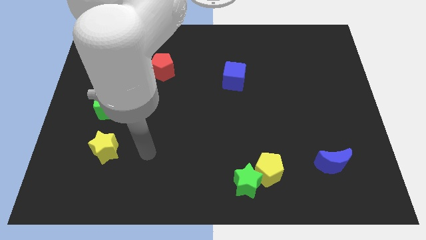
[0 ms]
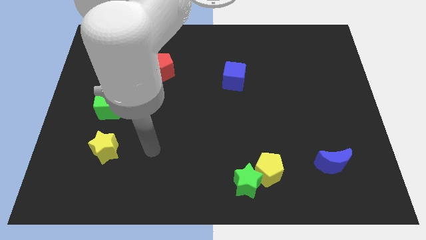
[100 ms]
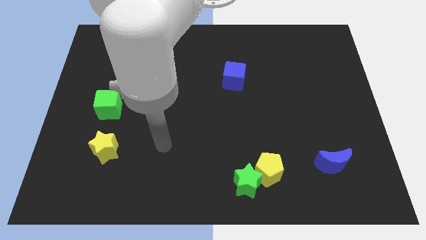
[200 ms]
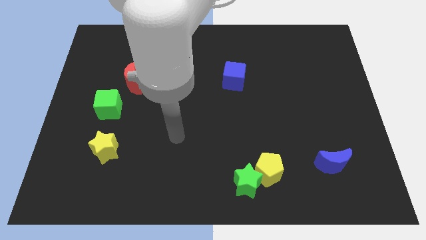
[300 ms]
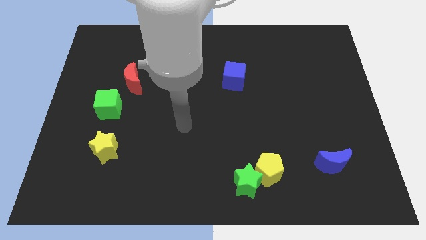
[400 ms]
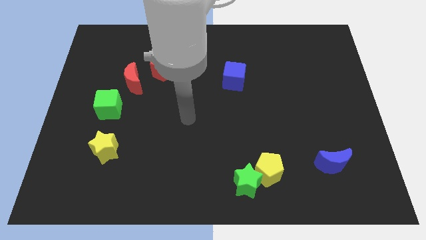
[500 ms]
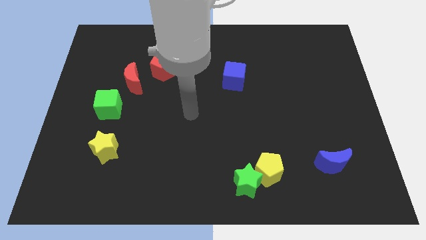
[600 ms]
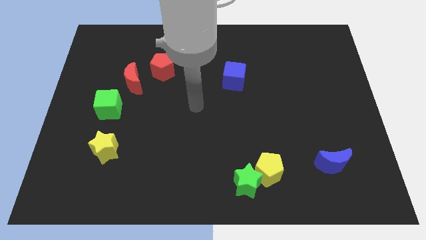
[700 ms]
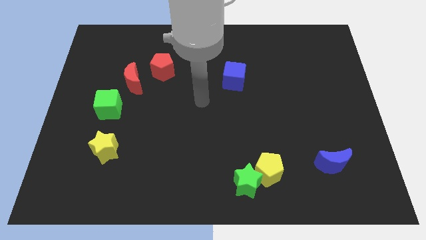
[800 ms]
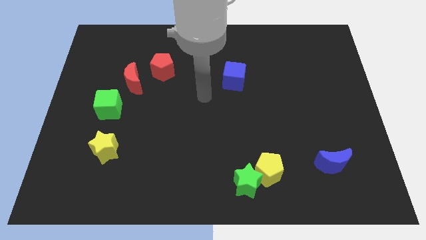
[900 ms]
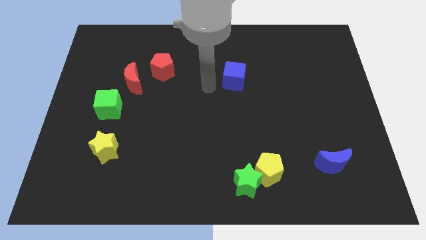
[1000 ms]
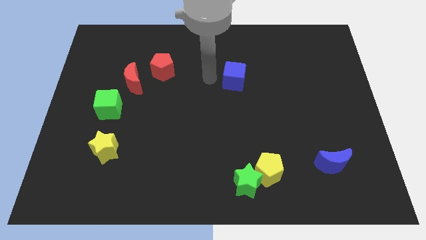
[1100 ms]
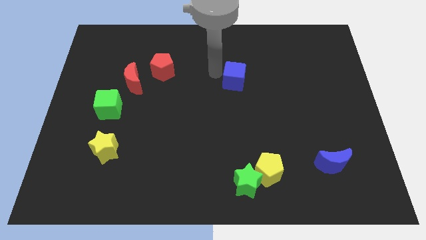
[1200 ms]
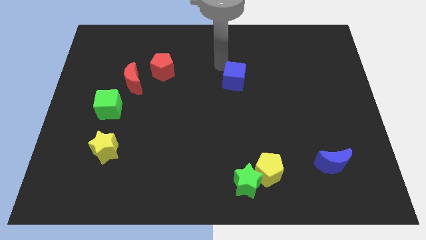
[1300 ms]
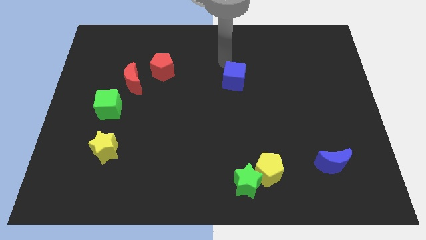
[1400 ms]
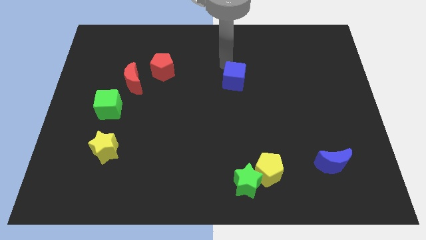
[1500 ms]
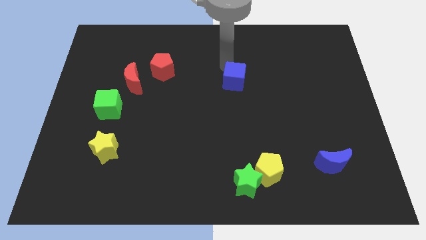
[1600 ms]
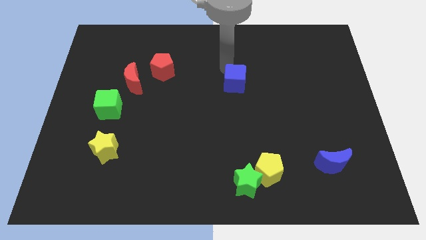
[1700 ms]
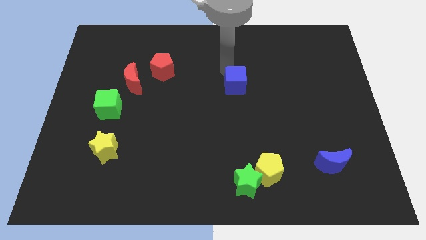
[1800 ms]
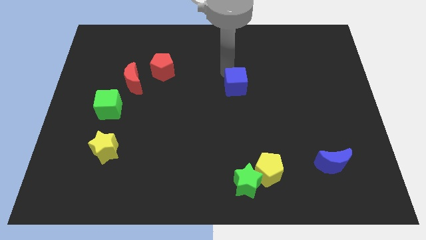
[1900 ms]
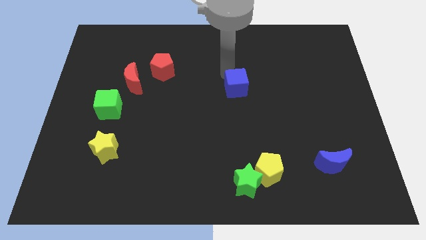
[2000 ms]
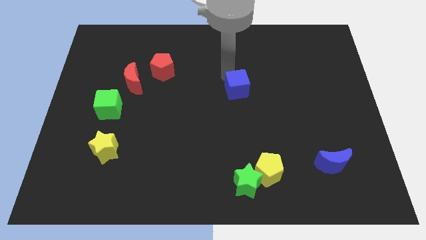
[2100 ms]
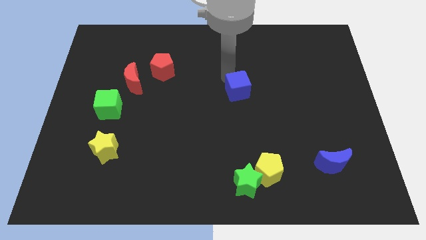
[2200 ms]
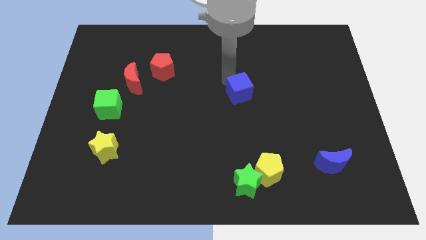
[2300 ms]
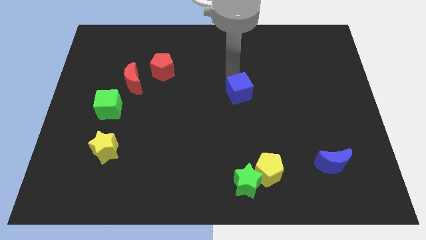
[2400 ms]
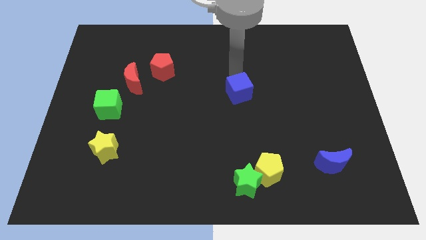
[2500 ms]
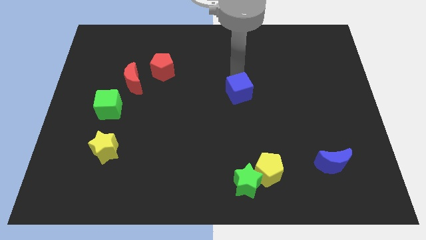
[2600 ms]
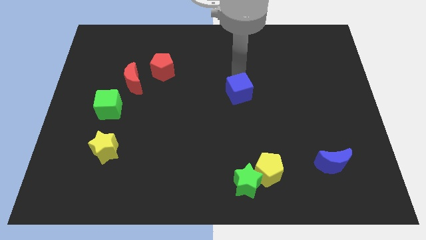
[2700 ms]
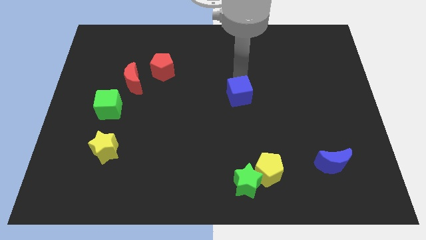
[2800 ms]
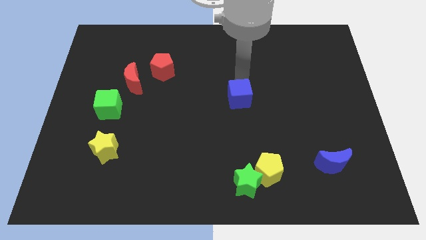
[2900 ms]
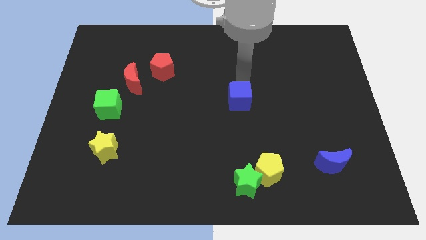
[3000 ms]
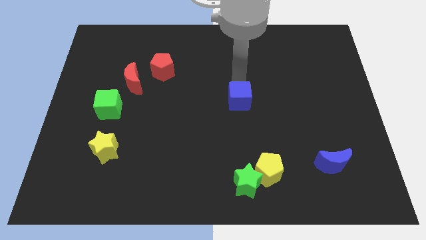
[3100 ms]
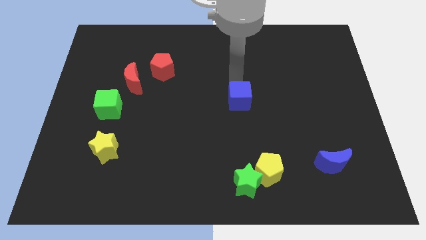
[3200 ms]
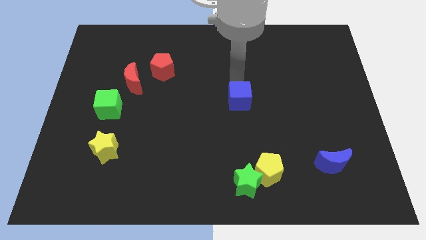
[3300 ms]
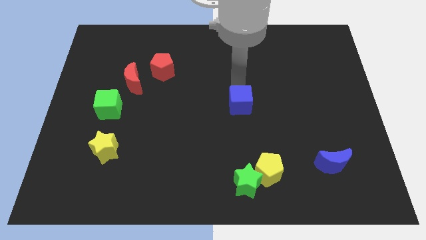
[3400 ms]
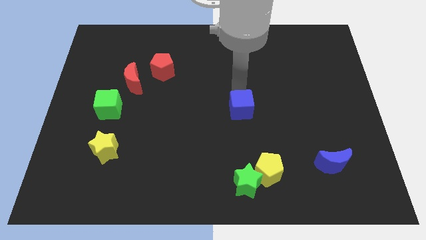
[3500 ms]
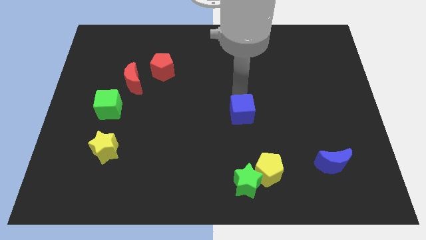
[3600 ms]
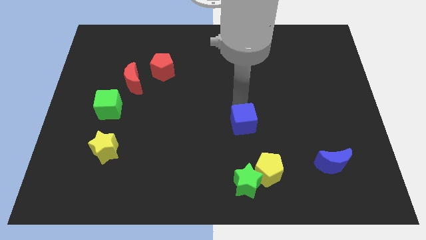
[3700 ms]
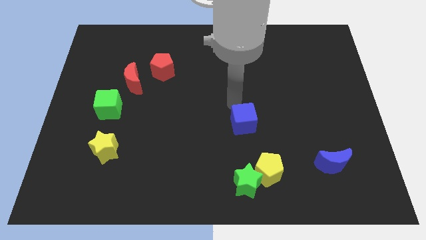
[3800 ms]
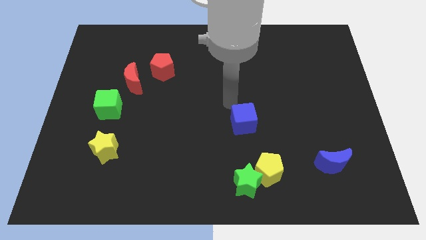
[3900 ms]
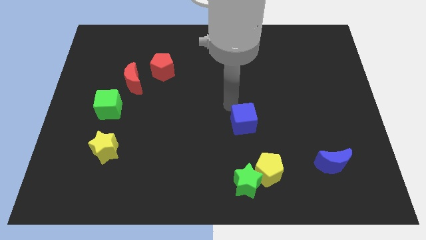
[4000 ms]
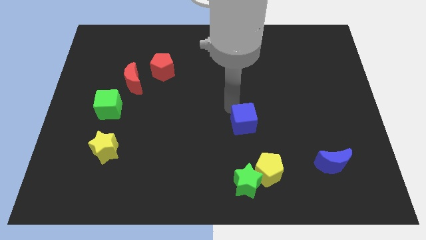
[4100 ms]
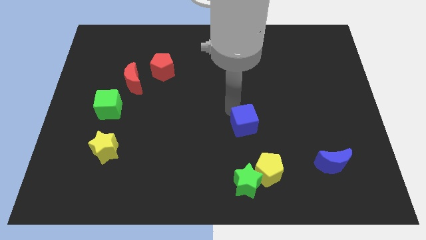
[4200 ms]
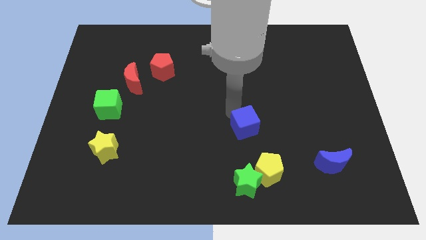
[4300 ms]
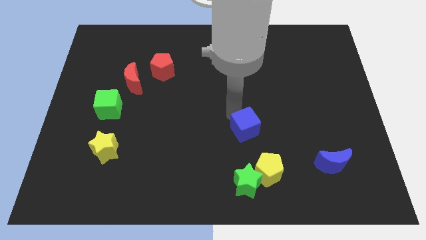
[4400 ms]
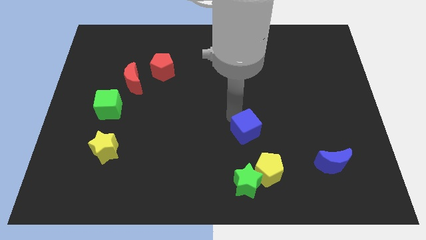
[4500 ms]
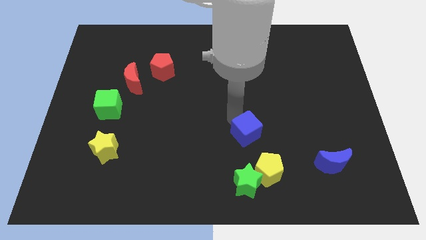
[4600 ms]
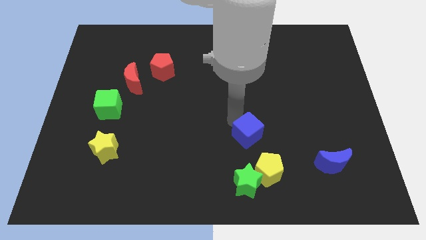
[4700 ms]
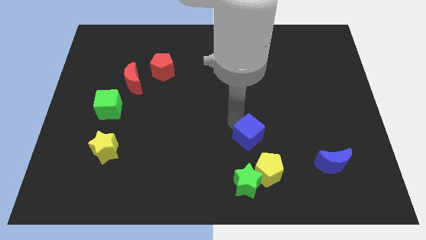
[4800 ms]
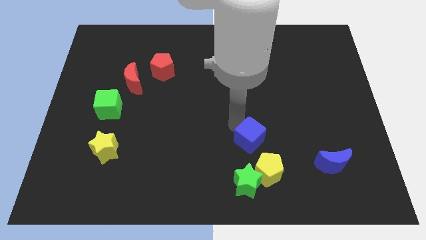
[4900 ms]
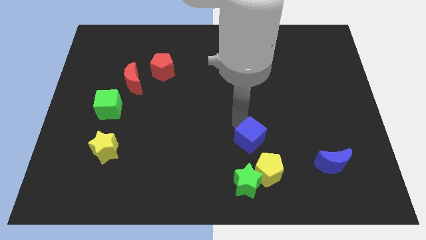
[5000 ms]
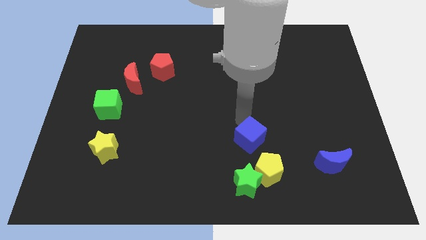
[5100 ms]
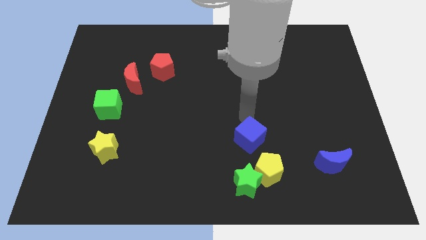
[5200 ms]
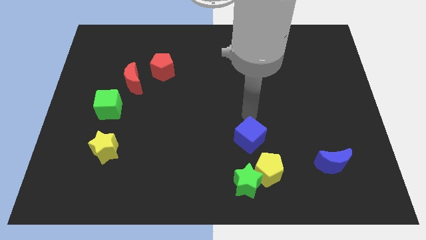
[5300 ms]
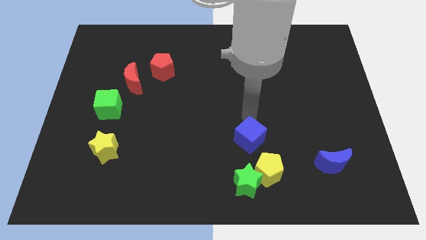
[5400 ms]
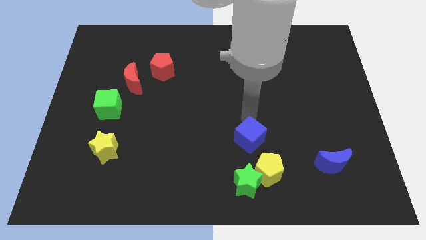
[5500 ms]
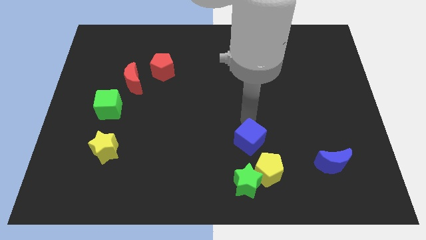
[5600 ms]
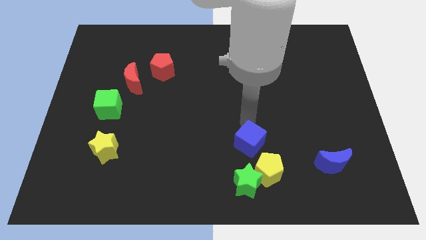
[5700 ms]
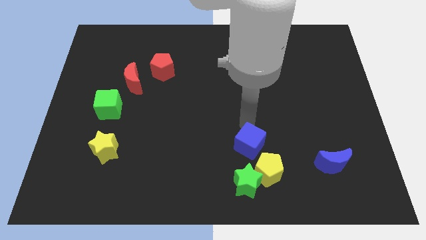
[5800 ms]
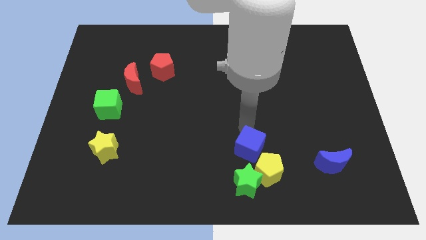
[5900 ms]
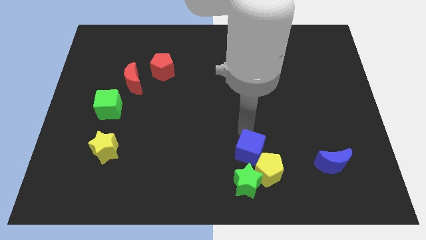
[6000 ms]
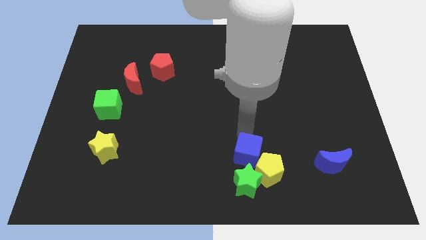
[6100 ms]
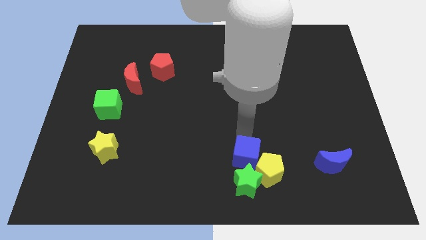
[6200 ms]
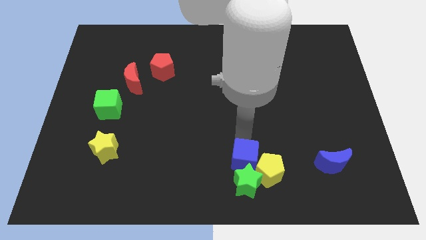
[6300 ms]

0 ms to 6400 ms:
slide the blue cube next to the green star
